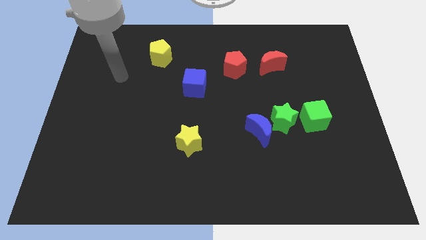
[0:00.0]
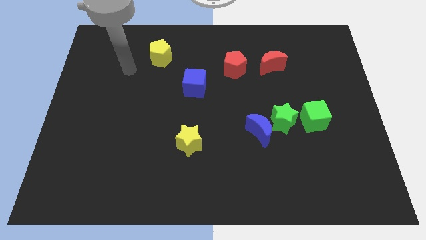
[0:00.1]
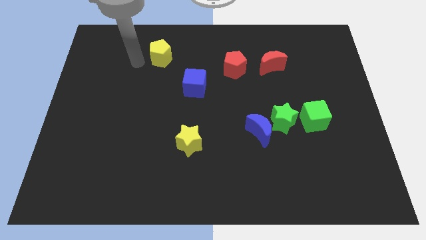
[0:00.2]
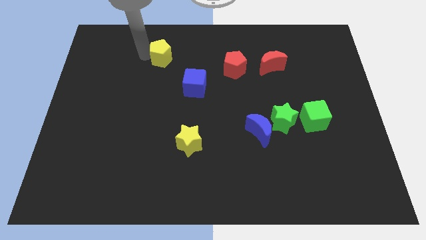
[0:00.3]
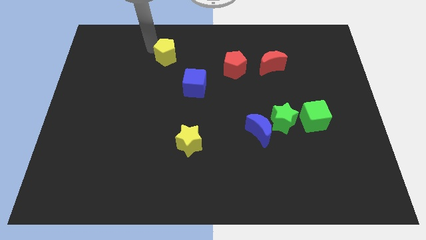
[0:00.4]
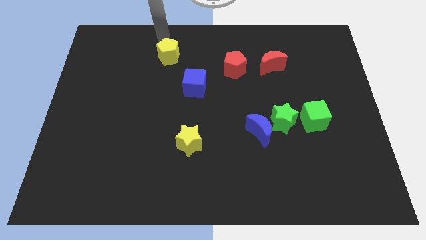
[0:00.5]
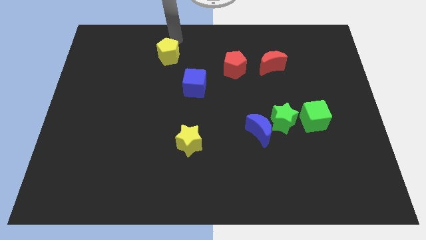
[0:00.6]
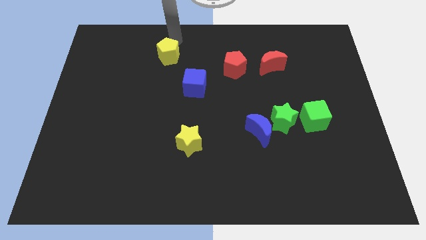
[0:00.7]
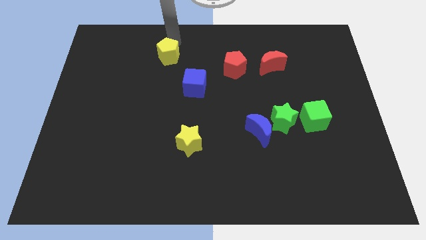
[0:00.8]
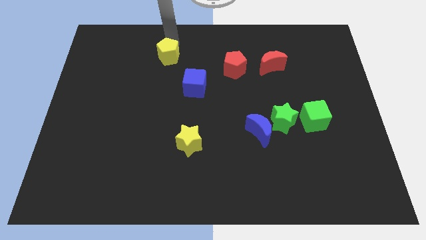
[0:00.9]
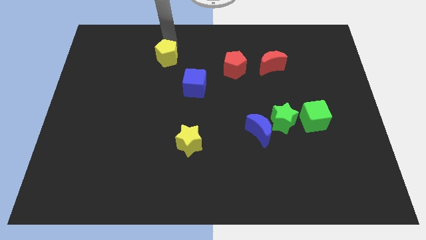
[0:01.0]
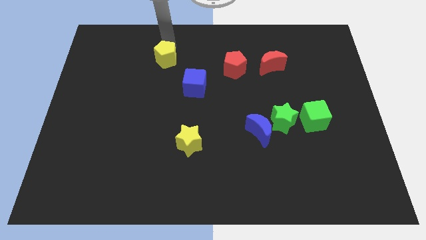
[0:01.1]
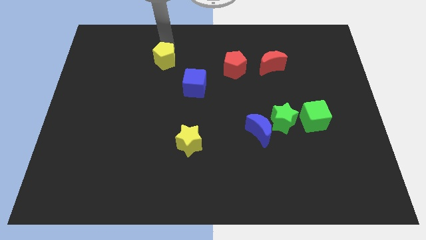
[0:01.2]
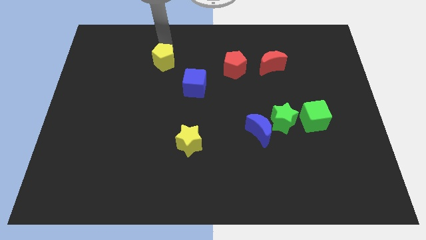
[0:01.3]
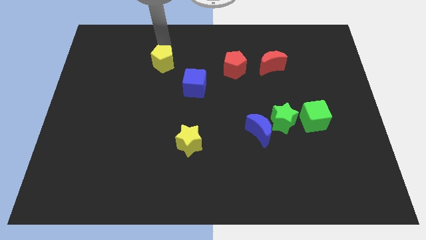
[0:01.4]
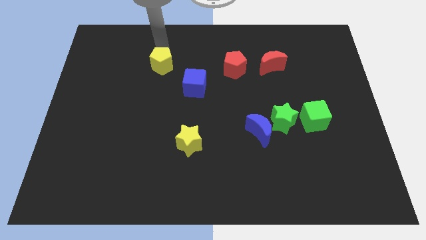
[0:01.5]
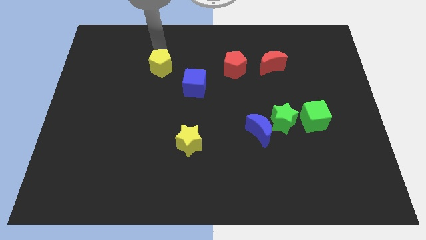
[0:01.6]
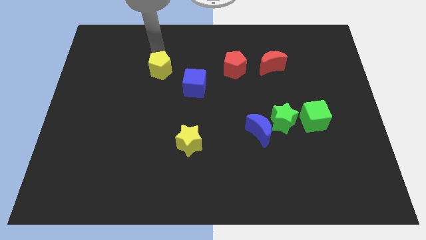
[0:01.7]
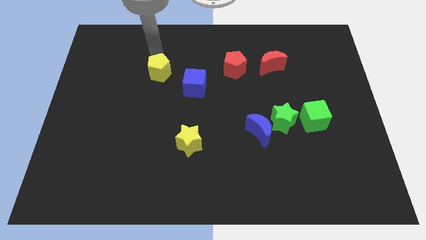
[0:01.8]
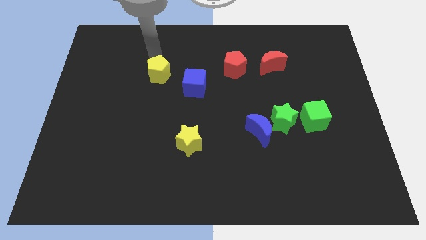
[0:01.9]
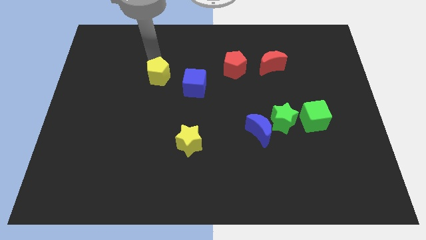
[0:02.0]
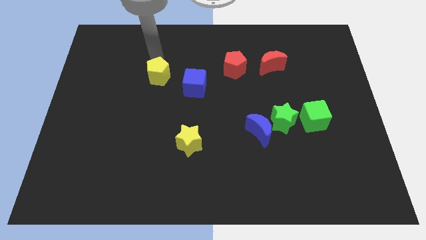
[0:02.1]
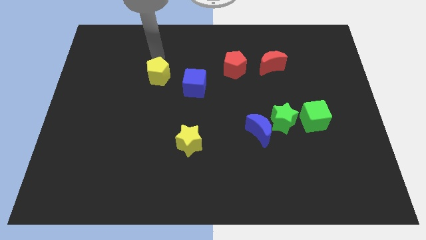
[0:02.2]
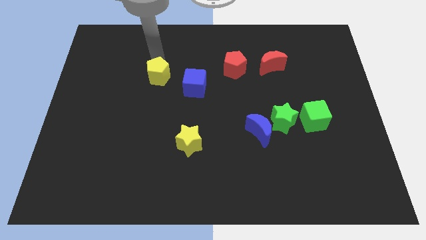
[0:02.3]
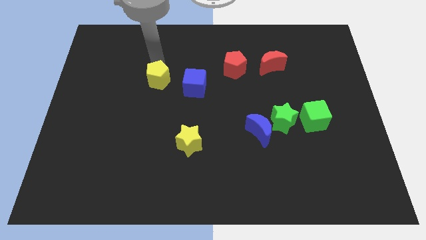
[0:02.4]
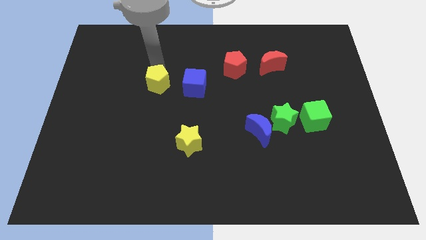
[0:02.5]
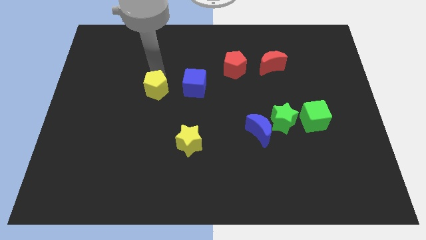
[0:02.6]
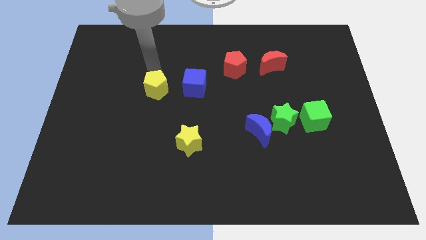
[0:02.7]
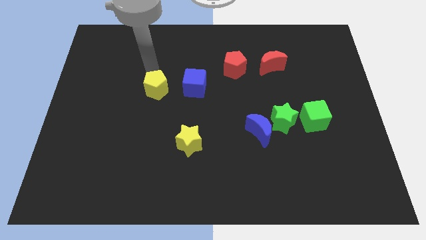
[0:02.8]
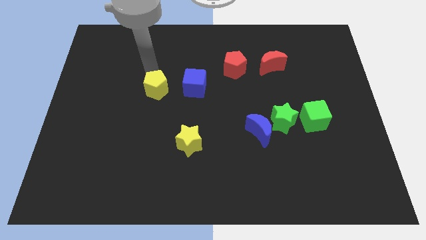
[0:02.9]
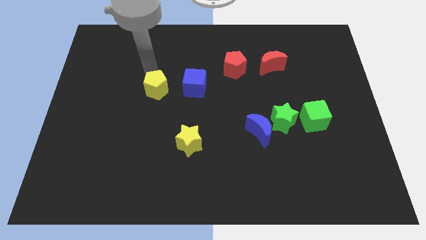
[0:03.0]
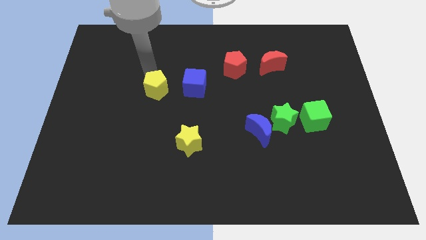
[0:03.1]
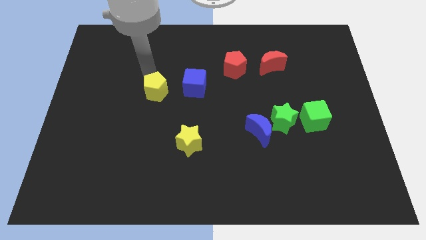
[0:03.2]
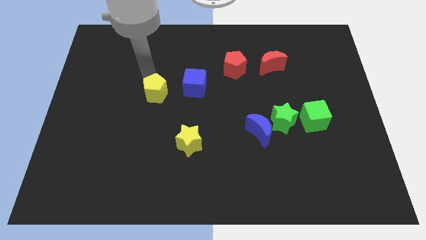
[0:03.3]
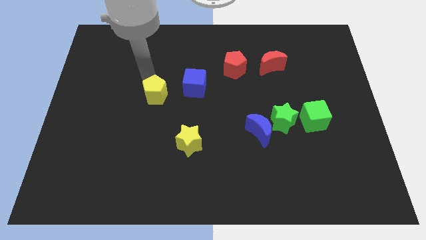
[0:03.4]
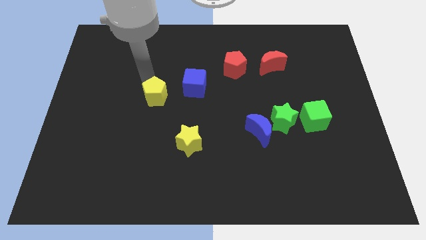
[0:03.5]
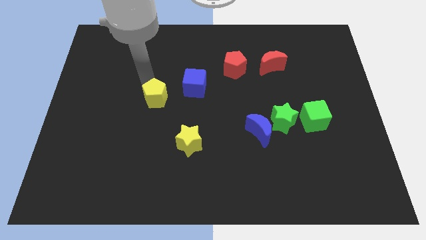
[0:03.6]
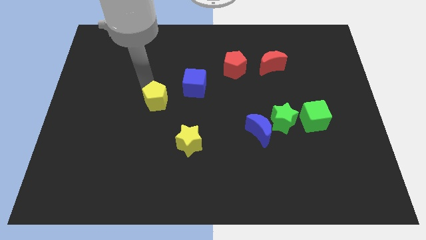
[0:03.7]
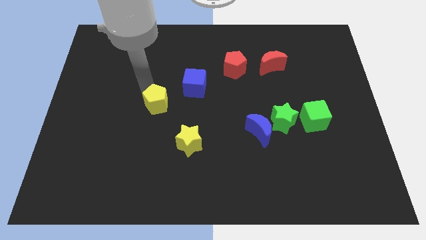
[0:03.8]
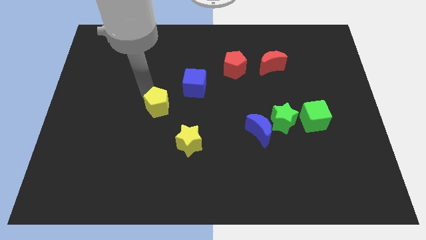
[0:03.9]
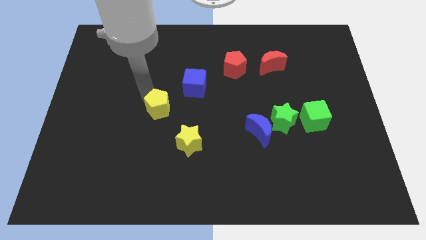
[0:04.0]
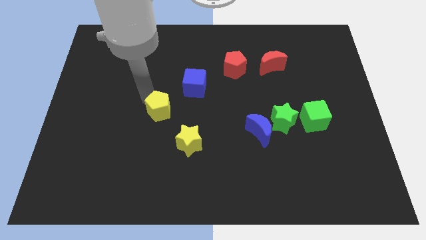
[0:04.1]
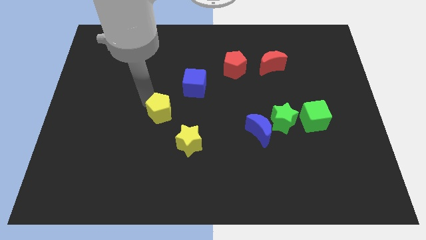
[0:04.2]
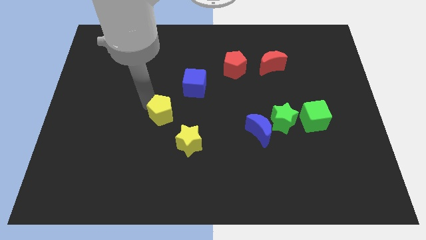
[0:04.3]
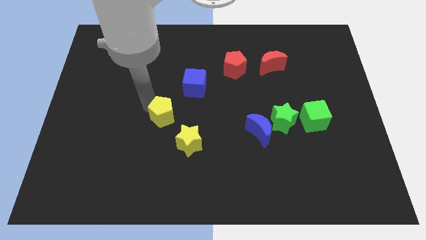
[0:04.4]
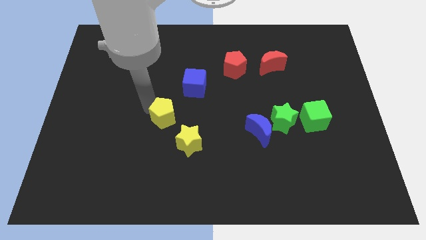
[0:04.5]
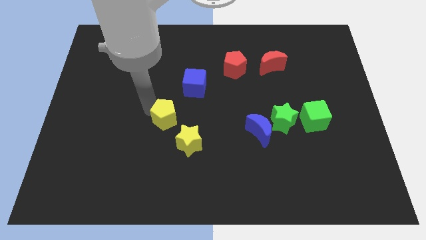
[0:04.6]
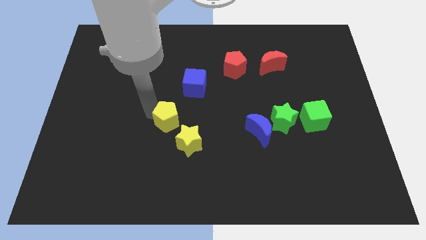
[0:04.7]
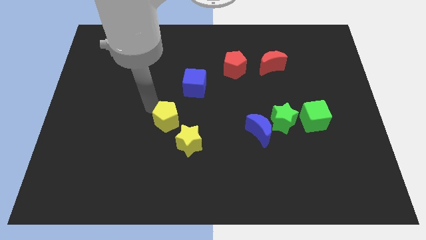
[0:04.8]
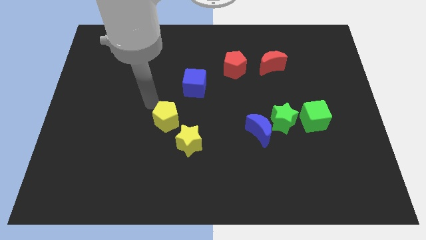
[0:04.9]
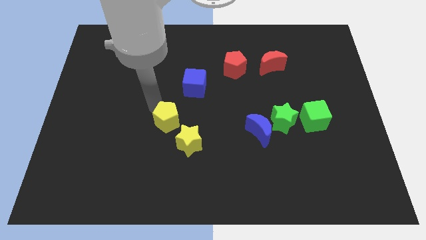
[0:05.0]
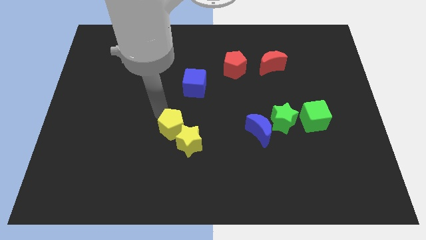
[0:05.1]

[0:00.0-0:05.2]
push the yellow pentagon close to the yellow star

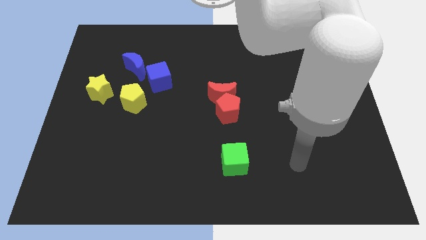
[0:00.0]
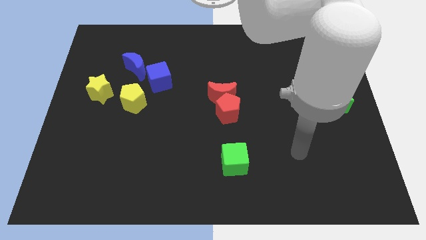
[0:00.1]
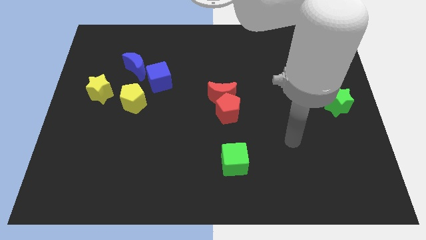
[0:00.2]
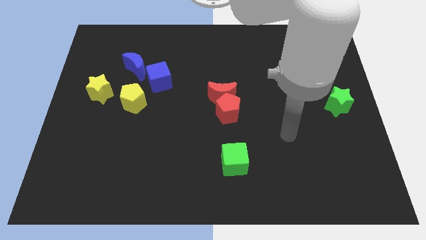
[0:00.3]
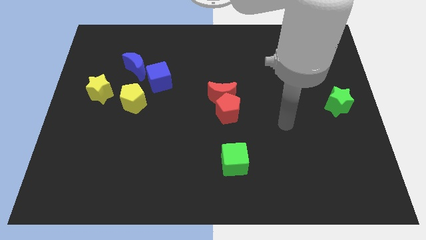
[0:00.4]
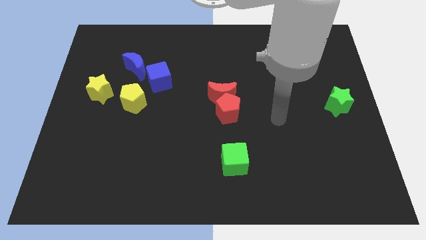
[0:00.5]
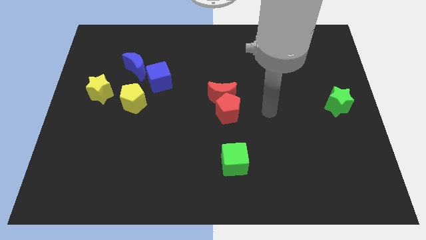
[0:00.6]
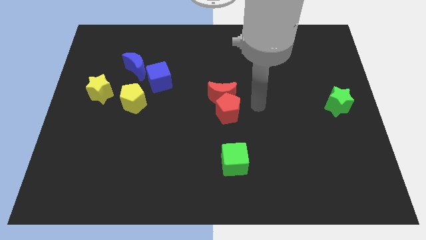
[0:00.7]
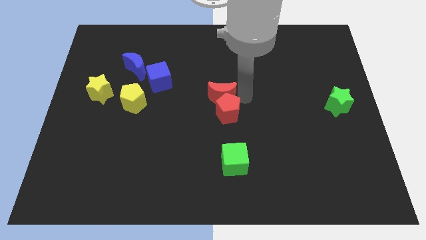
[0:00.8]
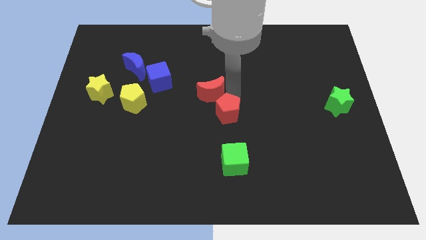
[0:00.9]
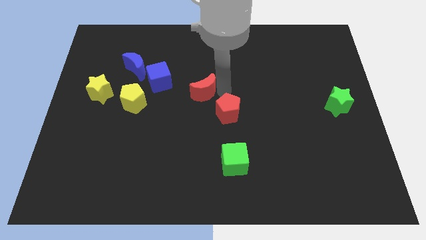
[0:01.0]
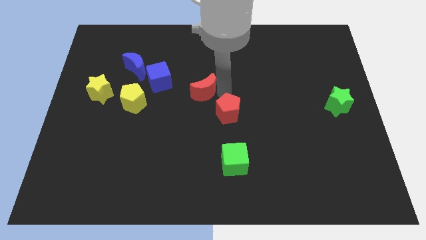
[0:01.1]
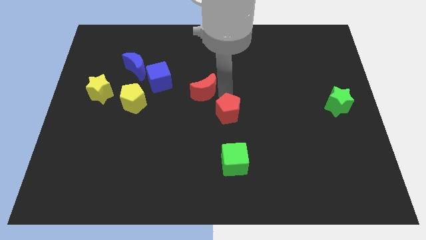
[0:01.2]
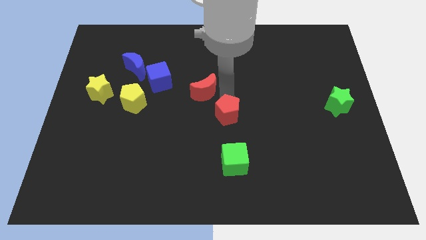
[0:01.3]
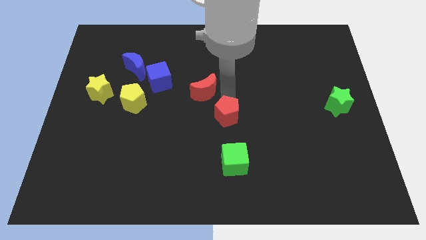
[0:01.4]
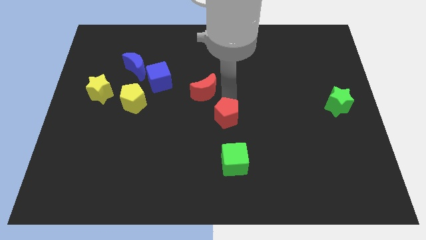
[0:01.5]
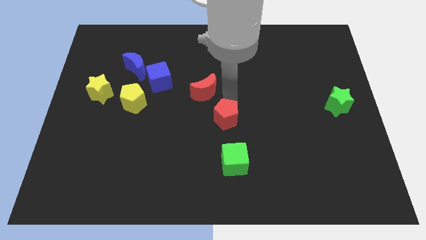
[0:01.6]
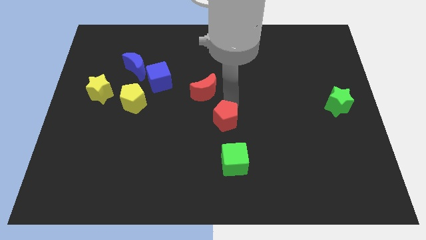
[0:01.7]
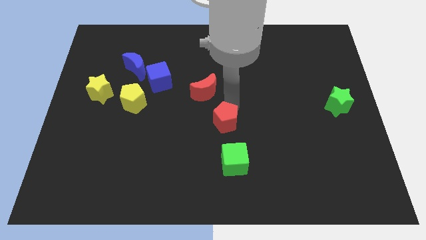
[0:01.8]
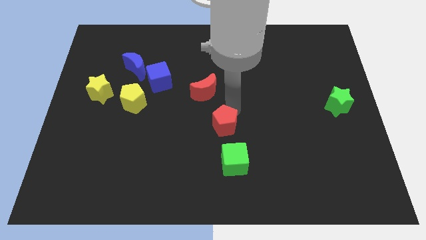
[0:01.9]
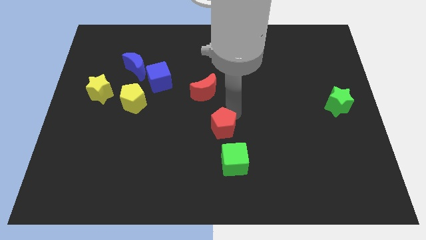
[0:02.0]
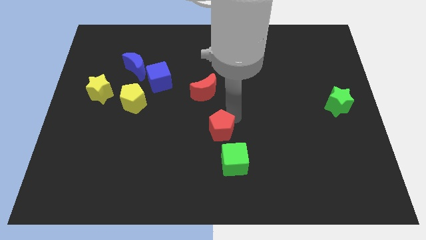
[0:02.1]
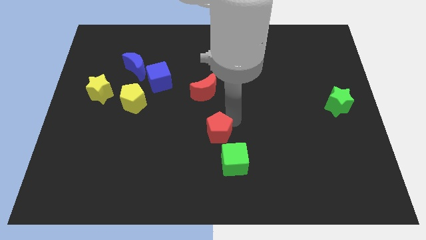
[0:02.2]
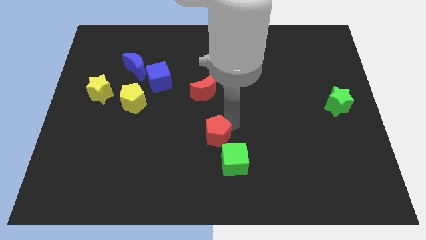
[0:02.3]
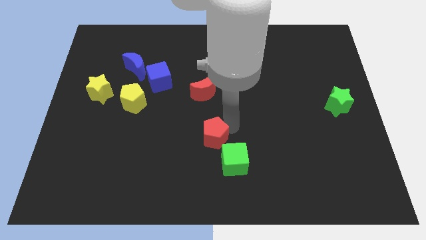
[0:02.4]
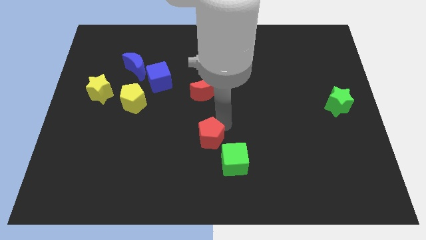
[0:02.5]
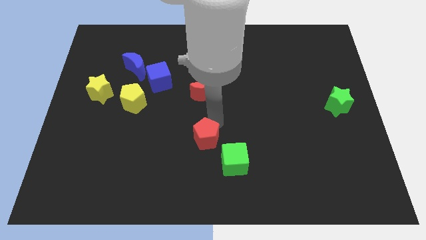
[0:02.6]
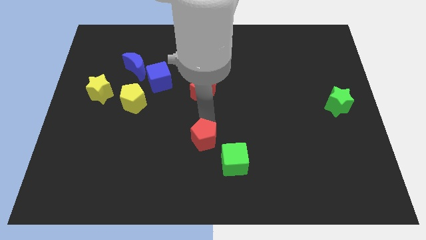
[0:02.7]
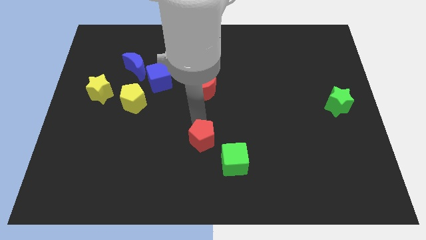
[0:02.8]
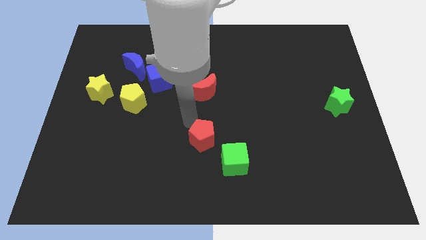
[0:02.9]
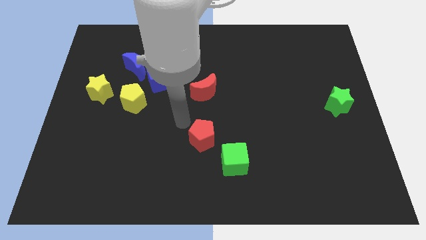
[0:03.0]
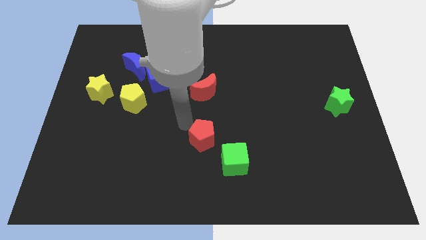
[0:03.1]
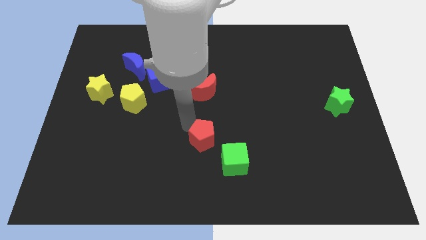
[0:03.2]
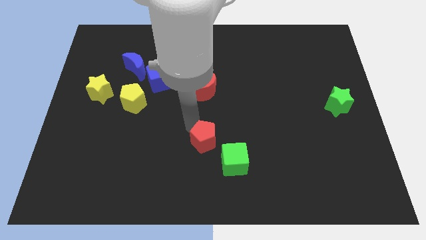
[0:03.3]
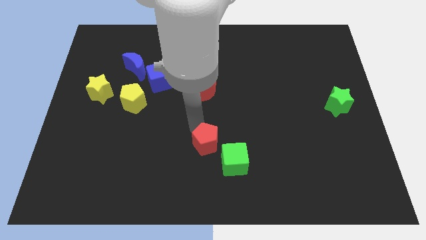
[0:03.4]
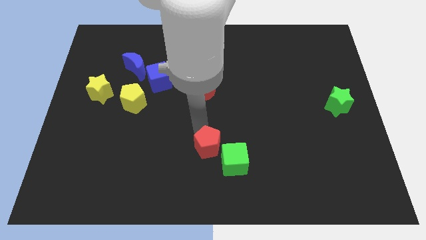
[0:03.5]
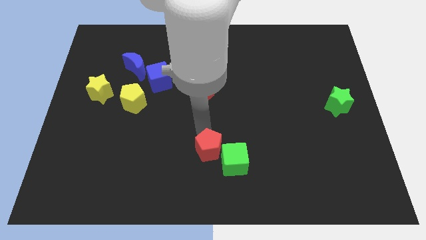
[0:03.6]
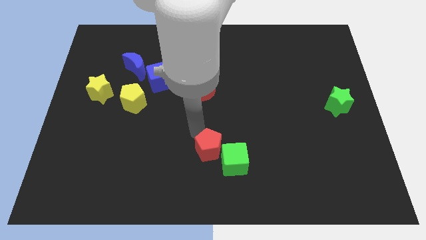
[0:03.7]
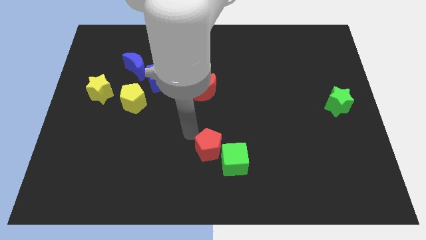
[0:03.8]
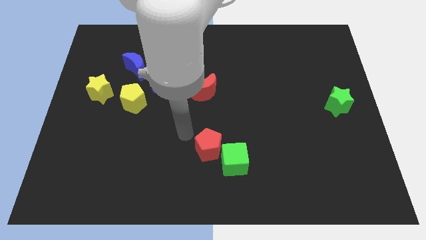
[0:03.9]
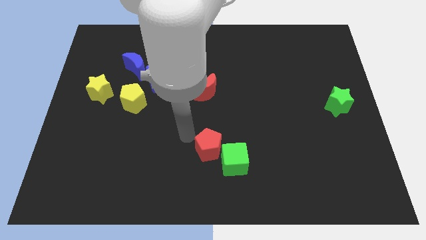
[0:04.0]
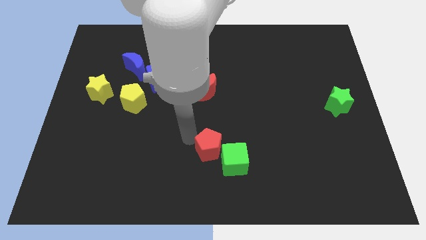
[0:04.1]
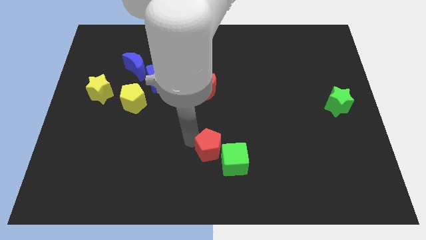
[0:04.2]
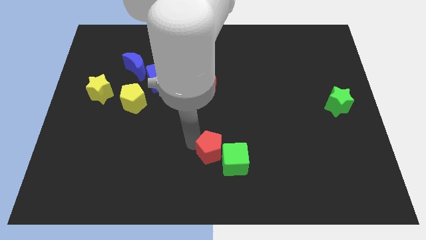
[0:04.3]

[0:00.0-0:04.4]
push the red pentagon next to the green cube
